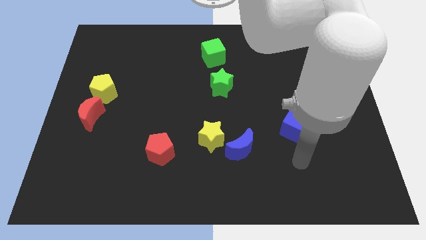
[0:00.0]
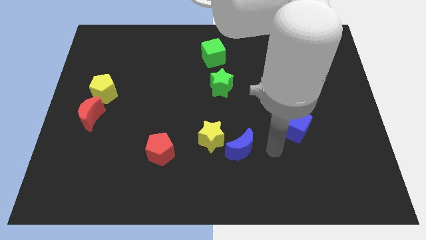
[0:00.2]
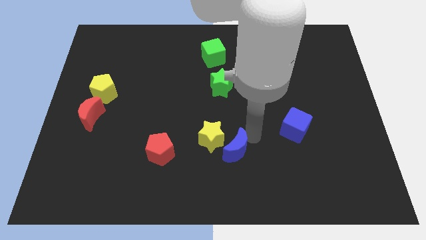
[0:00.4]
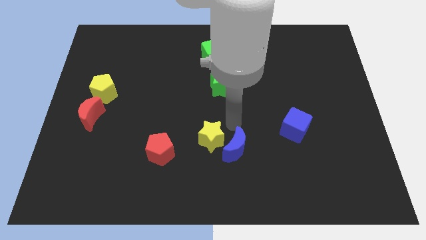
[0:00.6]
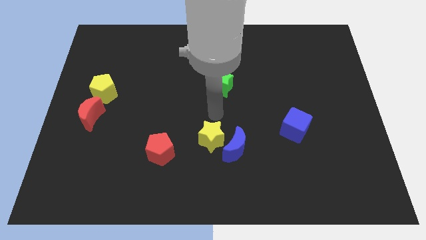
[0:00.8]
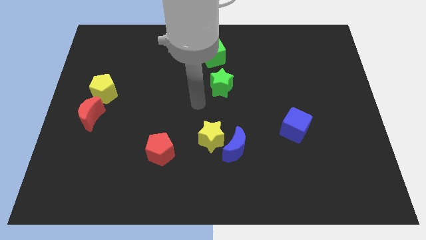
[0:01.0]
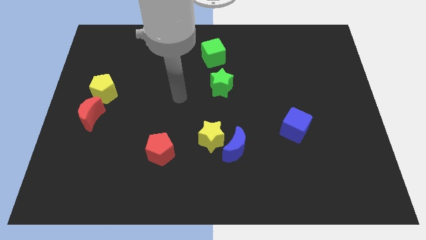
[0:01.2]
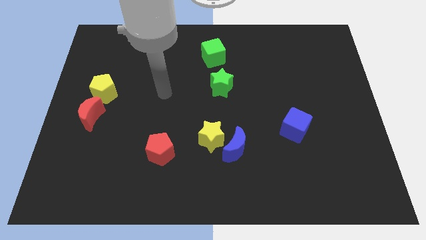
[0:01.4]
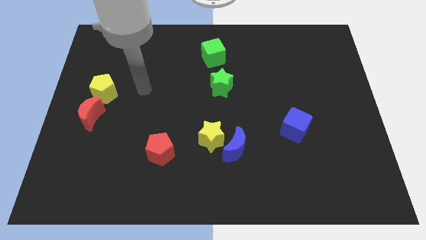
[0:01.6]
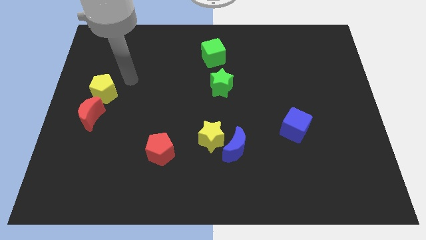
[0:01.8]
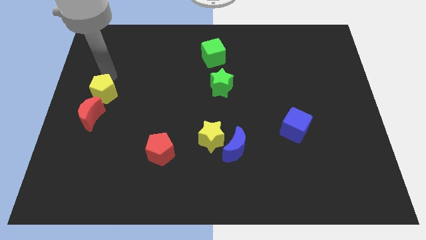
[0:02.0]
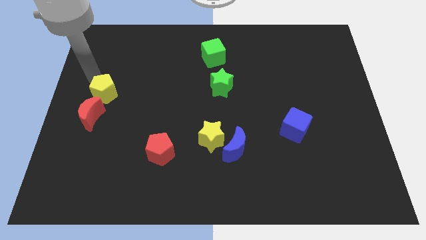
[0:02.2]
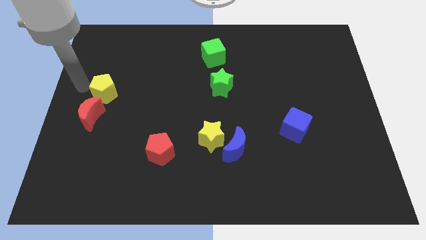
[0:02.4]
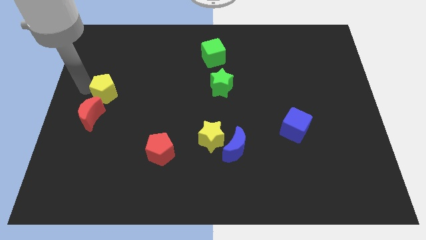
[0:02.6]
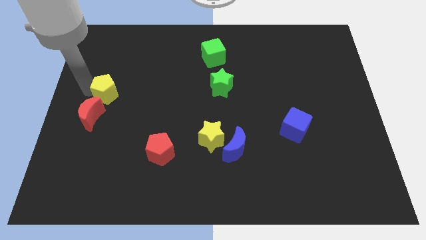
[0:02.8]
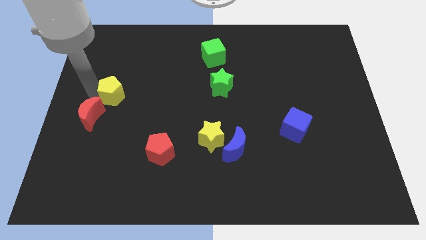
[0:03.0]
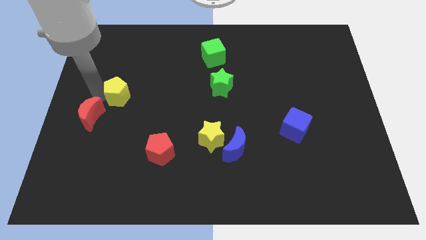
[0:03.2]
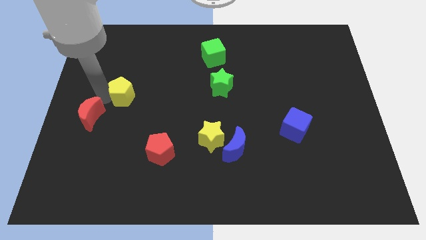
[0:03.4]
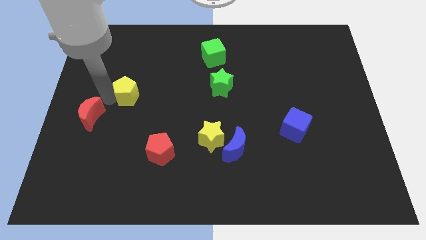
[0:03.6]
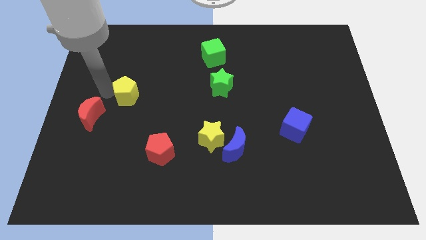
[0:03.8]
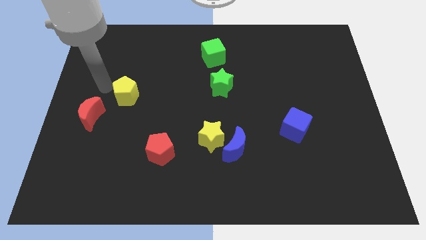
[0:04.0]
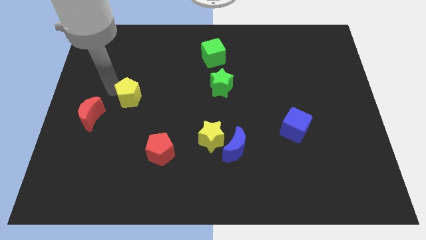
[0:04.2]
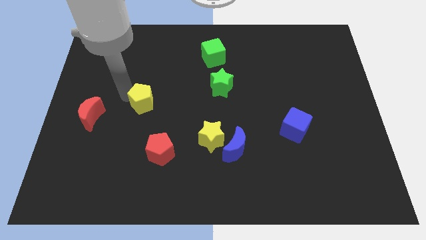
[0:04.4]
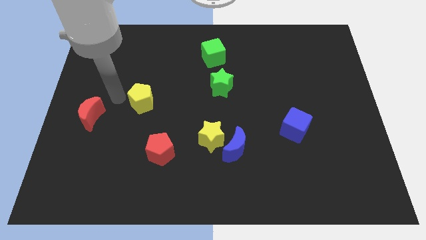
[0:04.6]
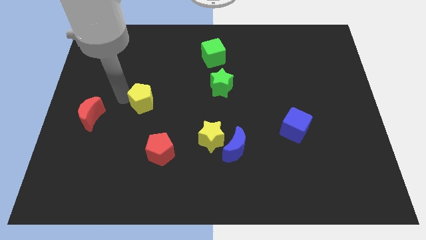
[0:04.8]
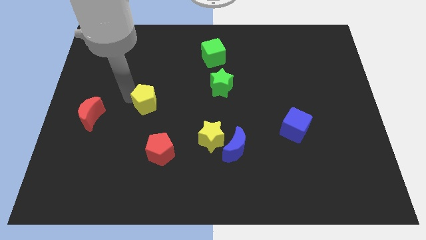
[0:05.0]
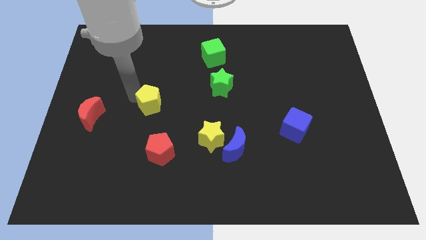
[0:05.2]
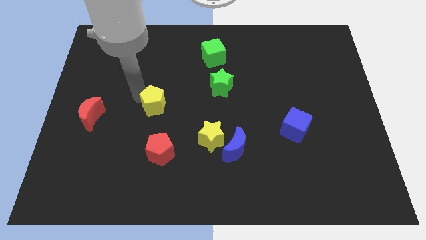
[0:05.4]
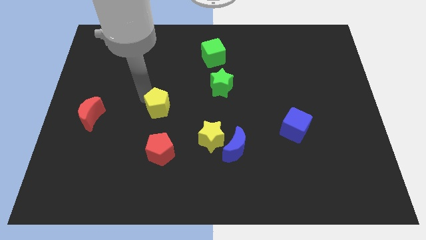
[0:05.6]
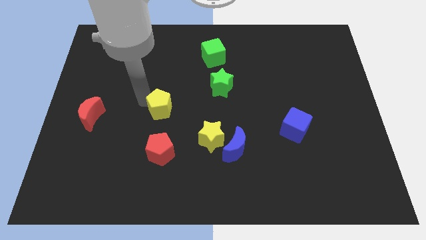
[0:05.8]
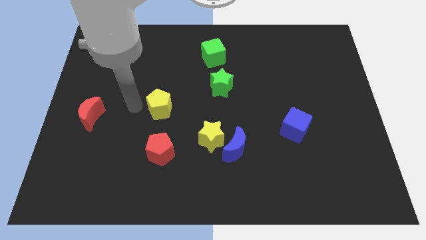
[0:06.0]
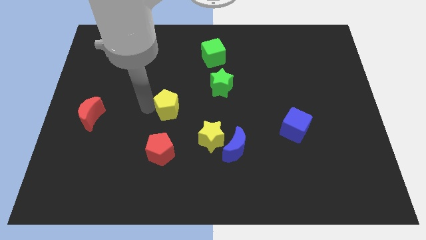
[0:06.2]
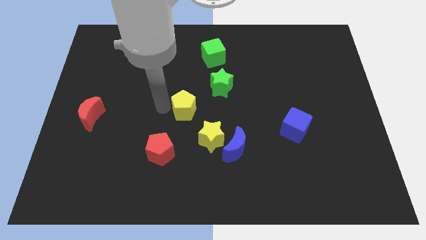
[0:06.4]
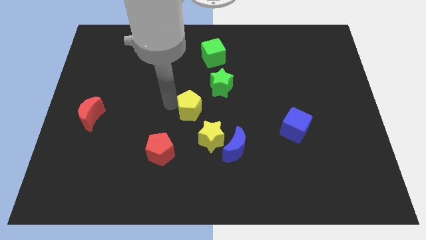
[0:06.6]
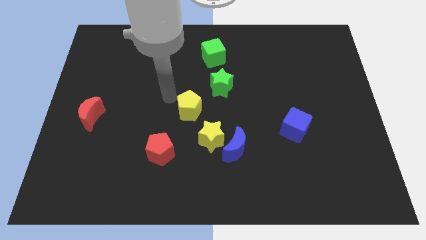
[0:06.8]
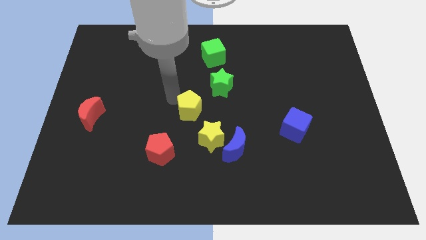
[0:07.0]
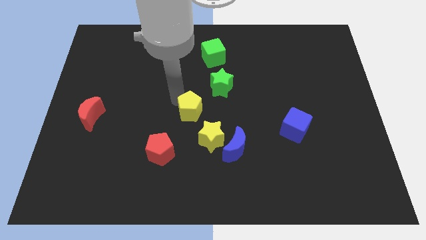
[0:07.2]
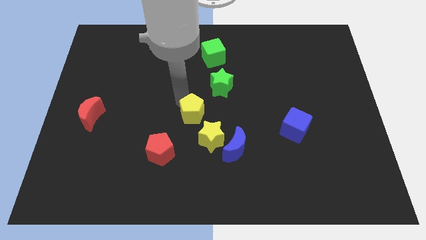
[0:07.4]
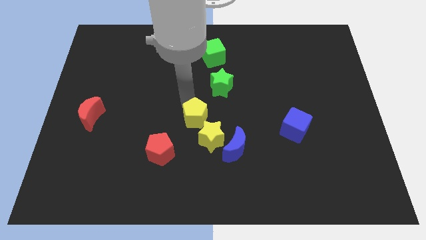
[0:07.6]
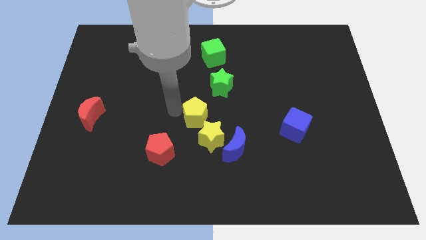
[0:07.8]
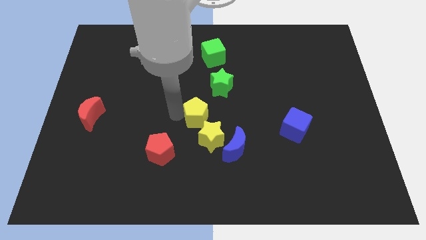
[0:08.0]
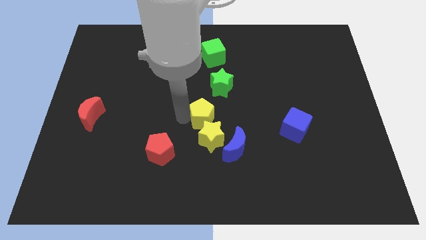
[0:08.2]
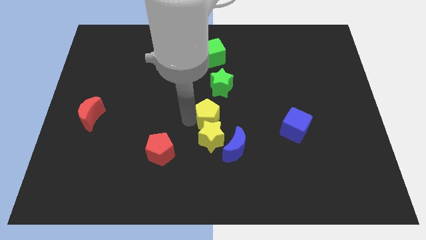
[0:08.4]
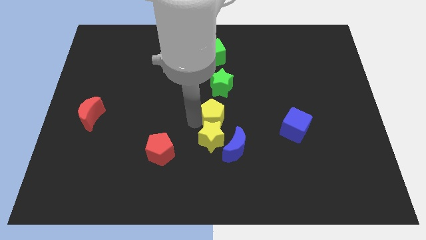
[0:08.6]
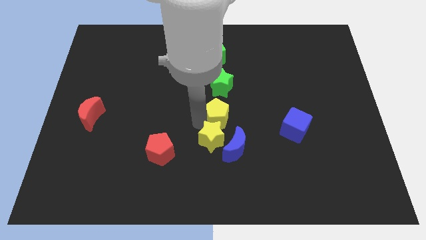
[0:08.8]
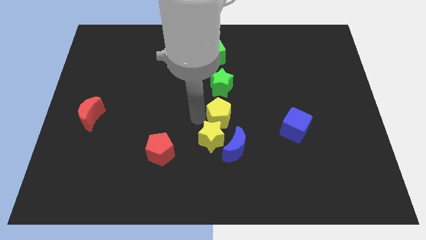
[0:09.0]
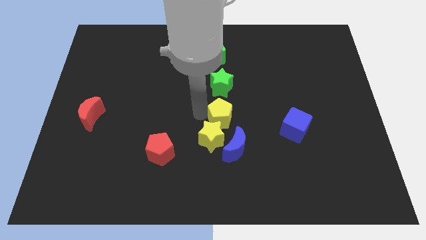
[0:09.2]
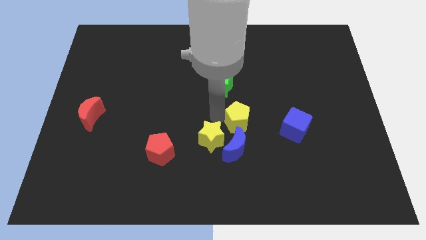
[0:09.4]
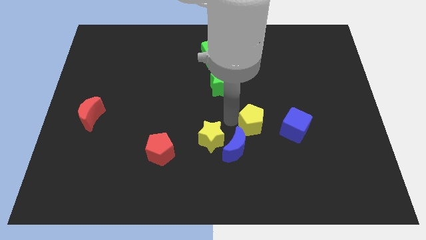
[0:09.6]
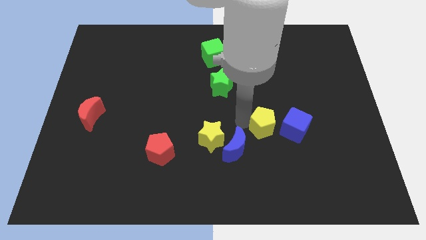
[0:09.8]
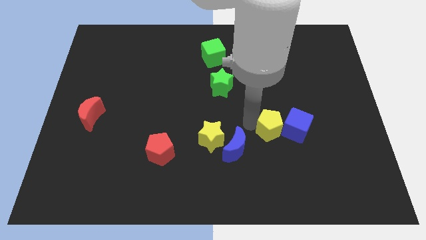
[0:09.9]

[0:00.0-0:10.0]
move the yellow pentagon next to the blue cube

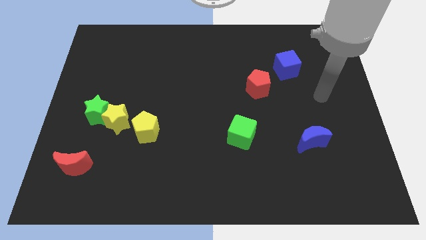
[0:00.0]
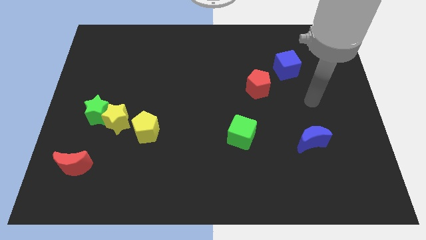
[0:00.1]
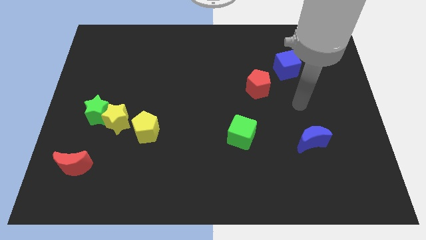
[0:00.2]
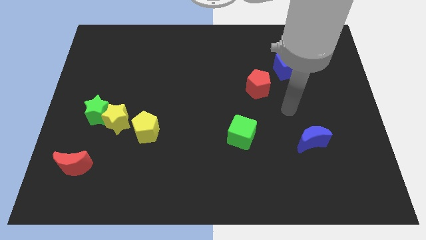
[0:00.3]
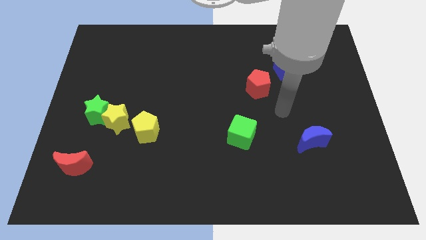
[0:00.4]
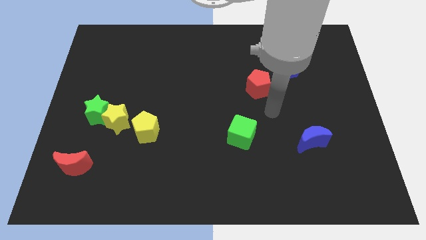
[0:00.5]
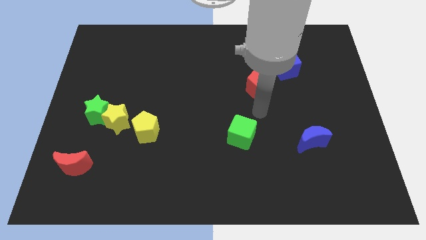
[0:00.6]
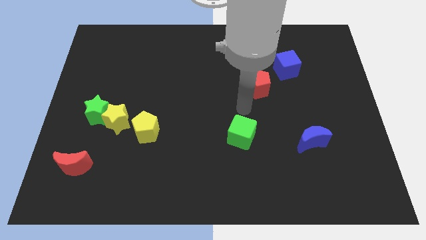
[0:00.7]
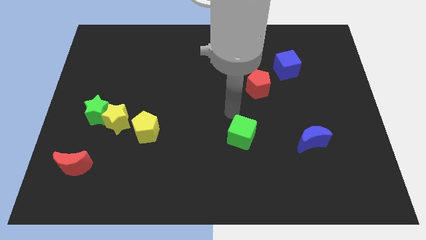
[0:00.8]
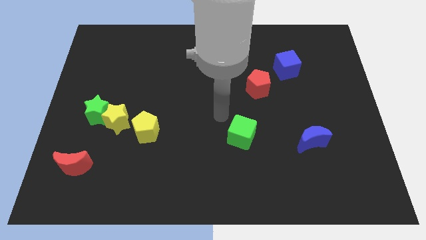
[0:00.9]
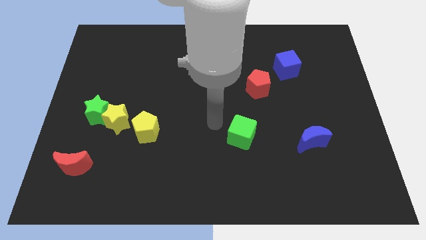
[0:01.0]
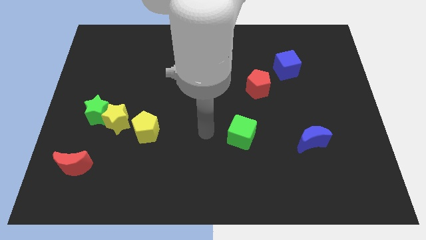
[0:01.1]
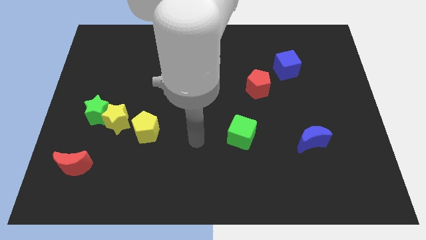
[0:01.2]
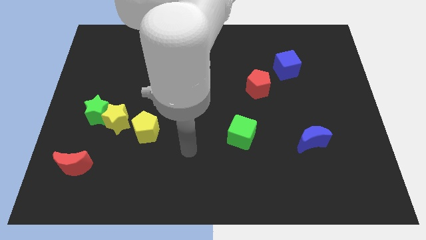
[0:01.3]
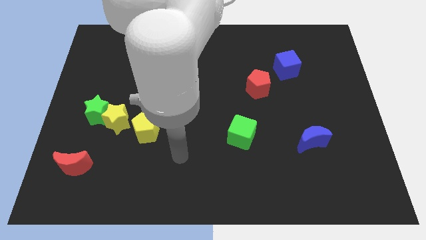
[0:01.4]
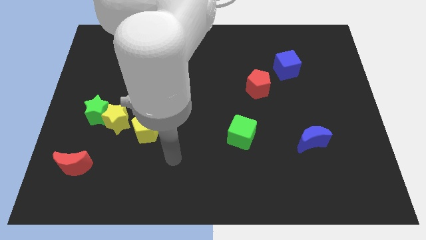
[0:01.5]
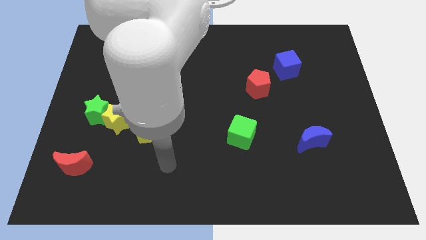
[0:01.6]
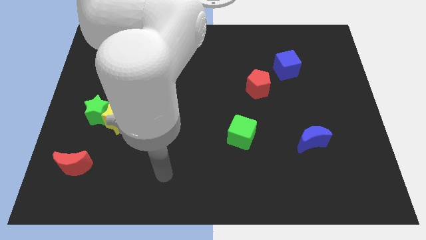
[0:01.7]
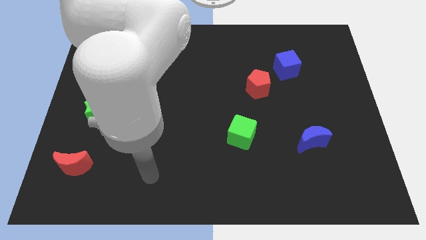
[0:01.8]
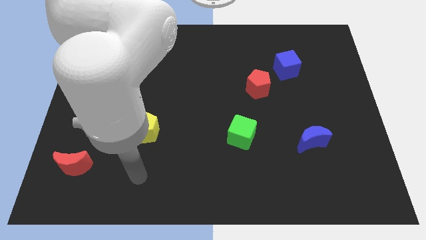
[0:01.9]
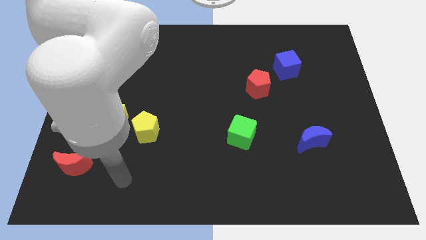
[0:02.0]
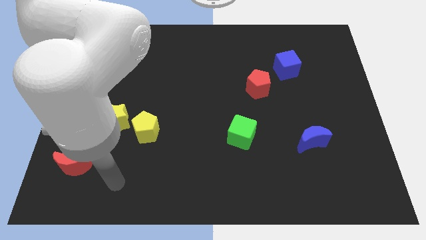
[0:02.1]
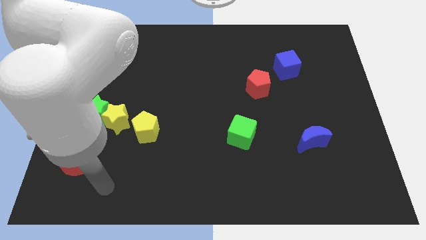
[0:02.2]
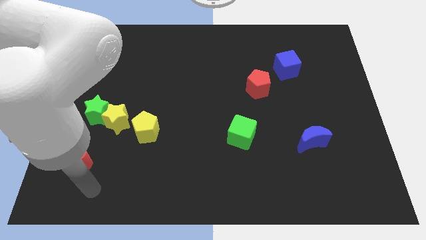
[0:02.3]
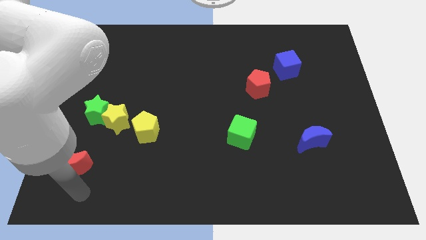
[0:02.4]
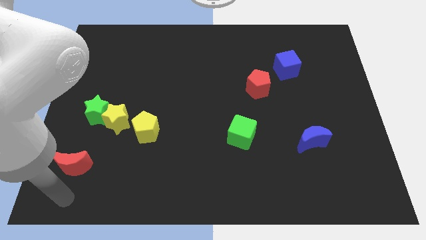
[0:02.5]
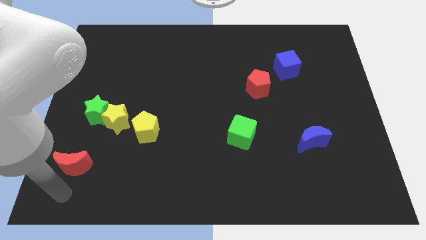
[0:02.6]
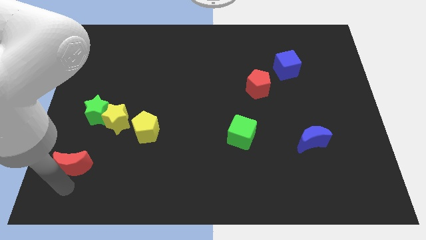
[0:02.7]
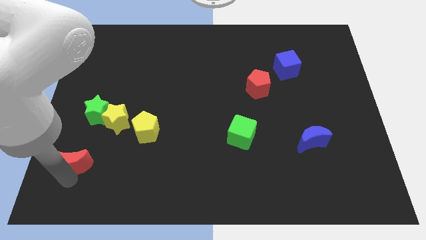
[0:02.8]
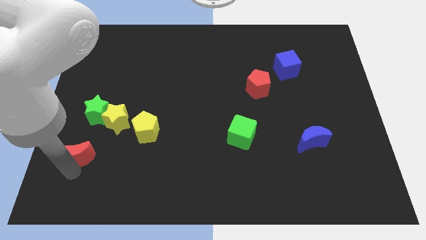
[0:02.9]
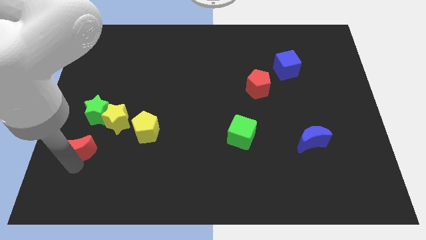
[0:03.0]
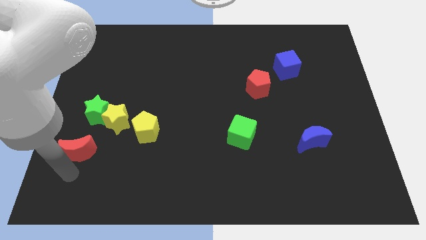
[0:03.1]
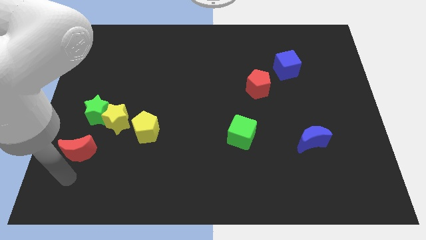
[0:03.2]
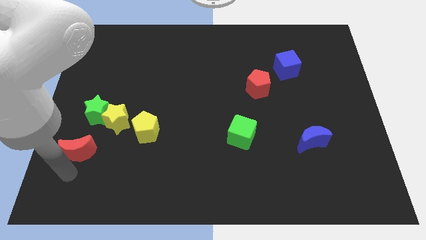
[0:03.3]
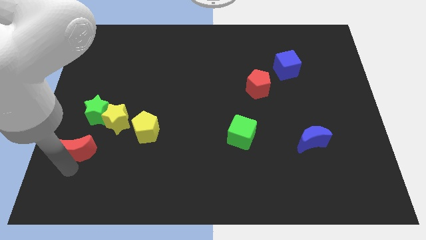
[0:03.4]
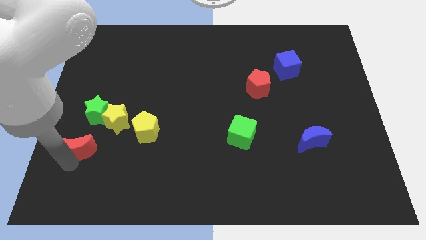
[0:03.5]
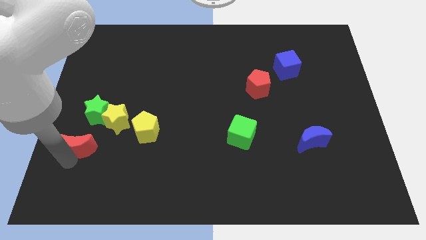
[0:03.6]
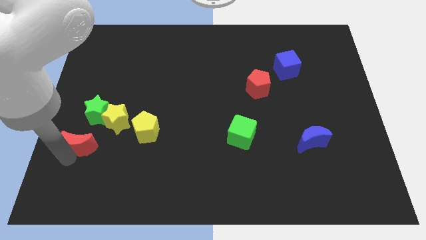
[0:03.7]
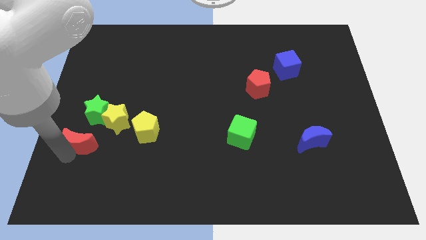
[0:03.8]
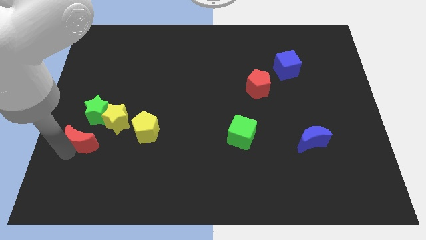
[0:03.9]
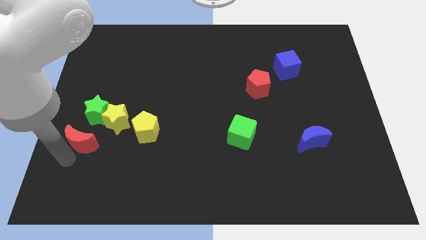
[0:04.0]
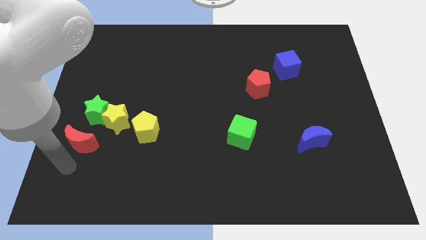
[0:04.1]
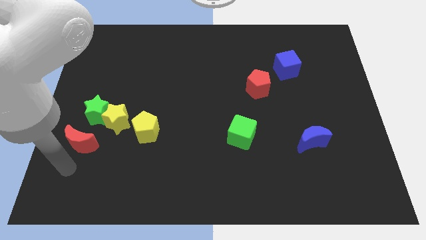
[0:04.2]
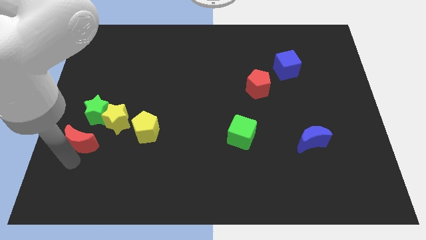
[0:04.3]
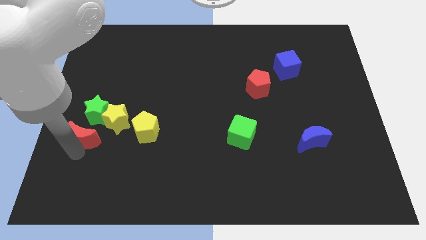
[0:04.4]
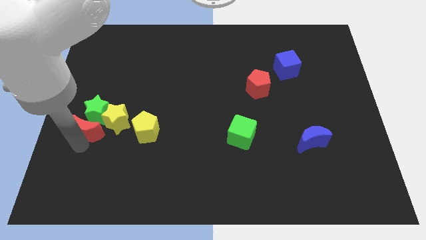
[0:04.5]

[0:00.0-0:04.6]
put the red moon close to the green star
